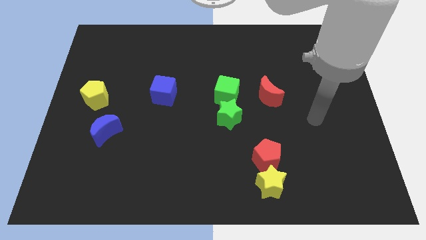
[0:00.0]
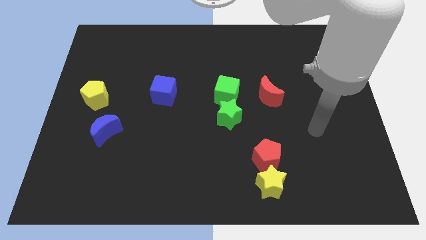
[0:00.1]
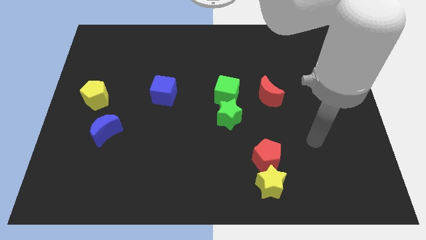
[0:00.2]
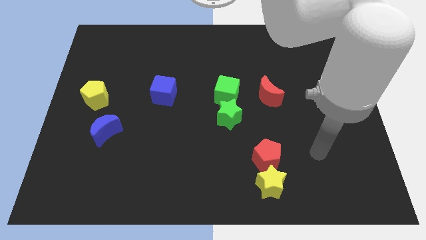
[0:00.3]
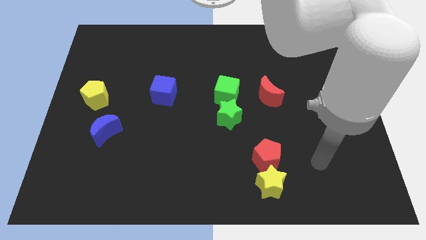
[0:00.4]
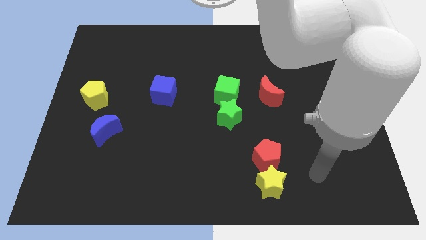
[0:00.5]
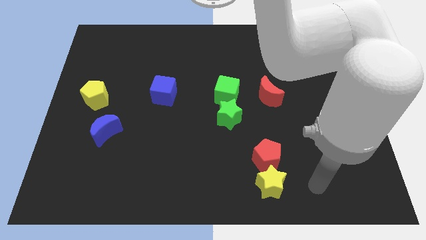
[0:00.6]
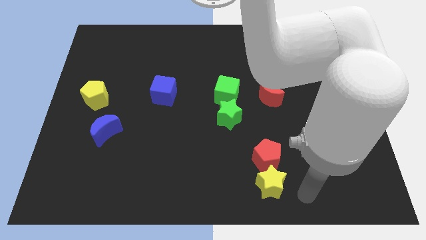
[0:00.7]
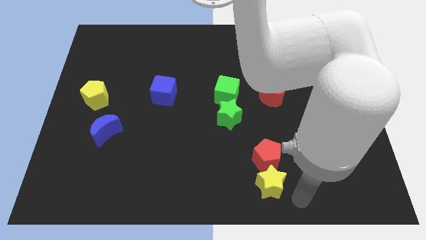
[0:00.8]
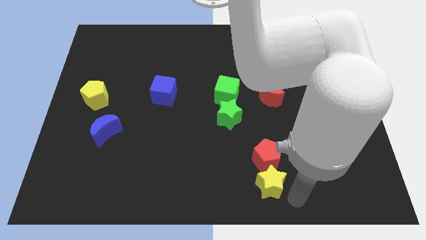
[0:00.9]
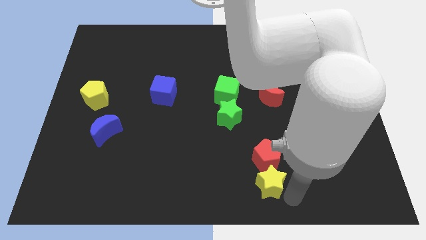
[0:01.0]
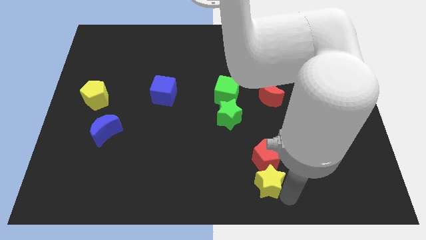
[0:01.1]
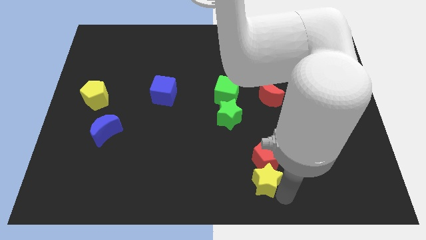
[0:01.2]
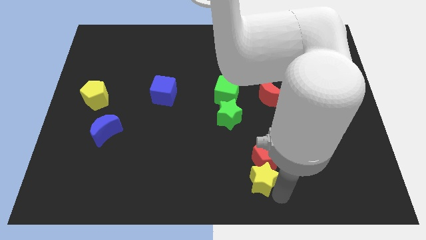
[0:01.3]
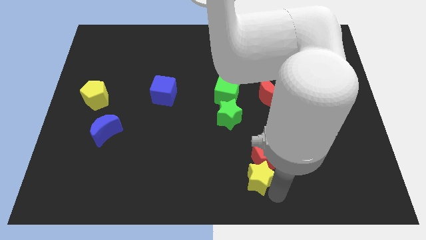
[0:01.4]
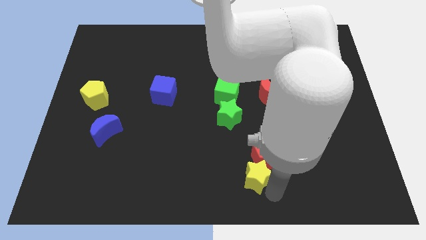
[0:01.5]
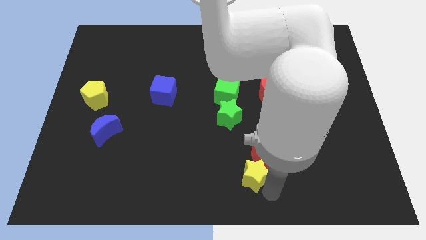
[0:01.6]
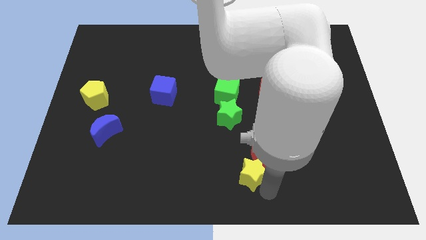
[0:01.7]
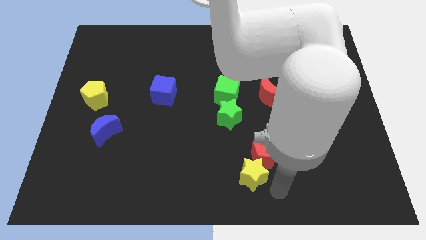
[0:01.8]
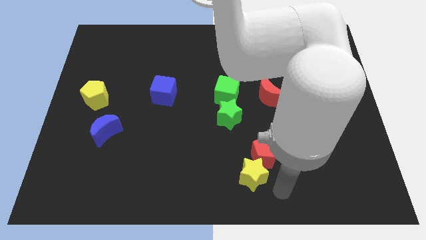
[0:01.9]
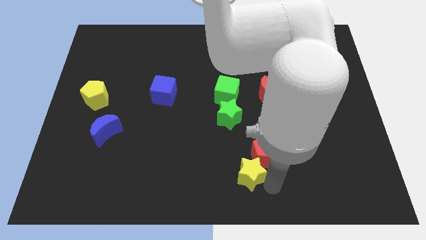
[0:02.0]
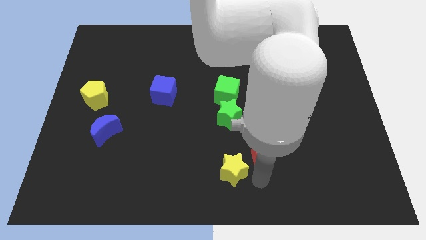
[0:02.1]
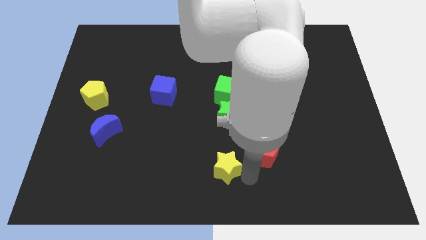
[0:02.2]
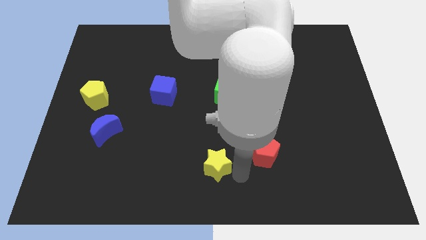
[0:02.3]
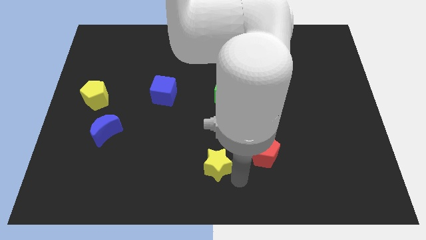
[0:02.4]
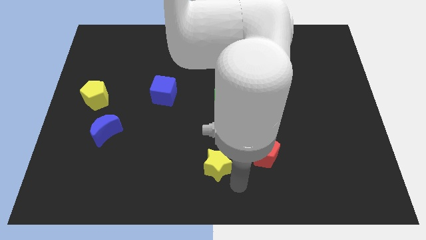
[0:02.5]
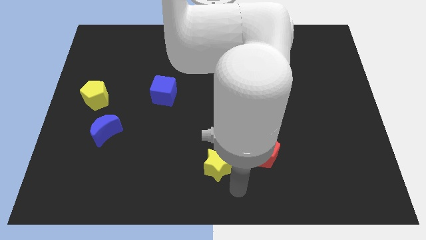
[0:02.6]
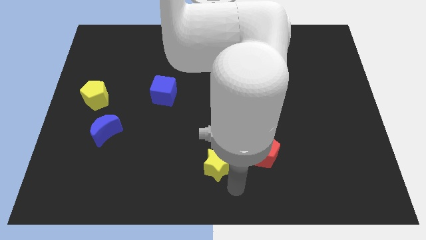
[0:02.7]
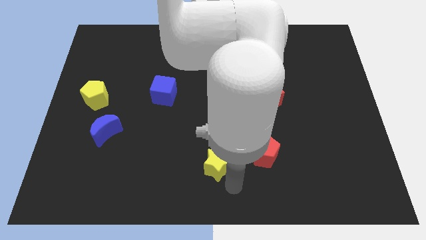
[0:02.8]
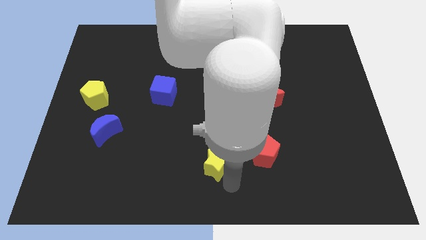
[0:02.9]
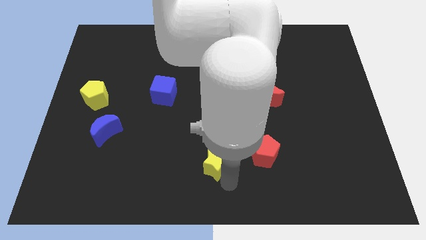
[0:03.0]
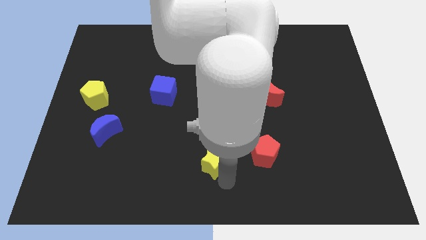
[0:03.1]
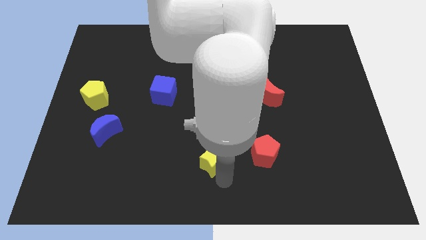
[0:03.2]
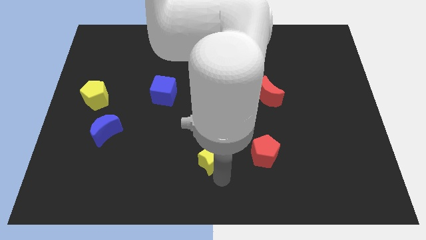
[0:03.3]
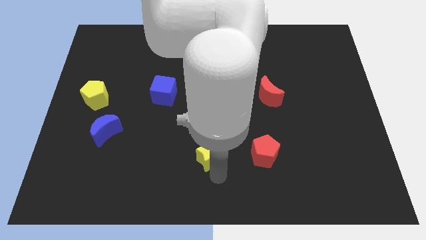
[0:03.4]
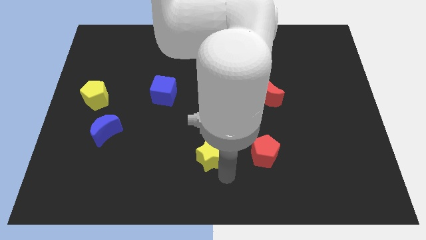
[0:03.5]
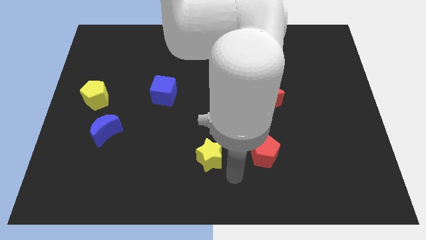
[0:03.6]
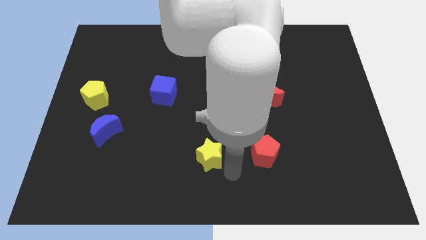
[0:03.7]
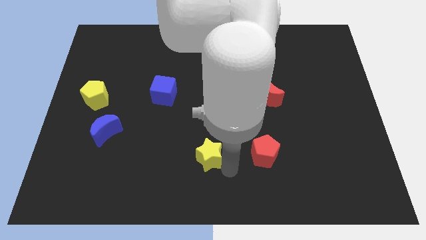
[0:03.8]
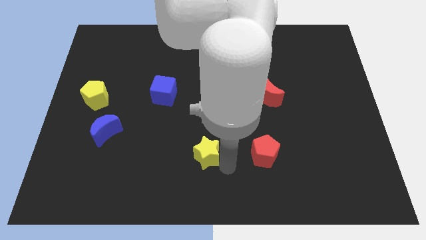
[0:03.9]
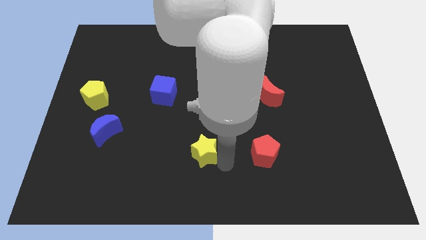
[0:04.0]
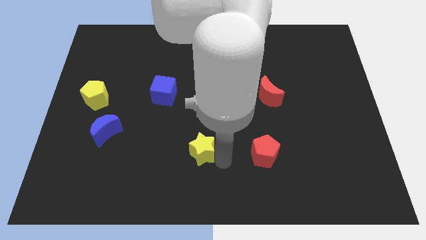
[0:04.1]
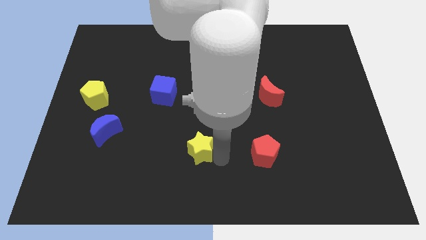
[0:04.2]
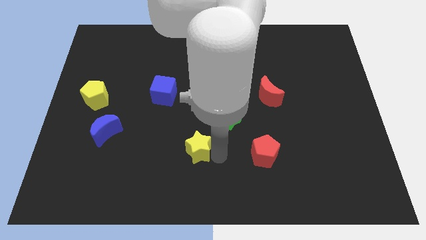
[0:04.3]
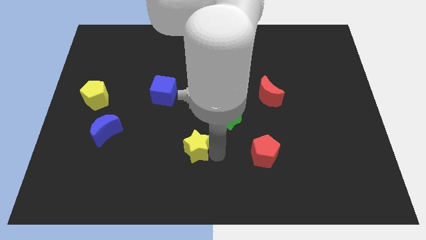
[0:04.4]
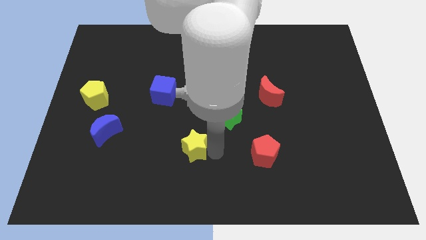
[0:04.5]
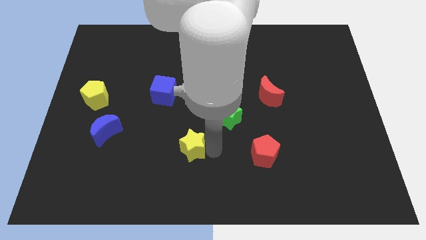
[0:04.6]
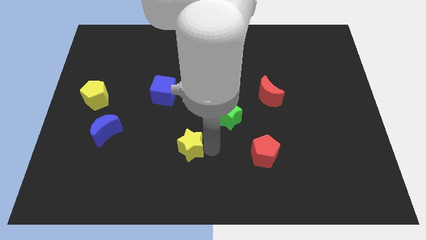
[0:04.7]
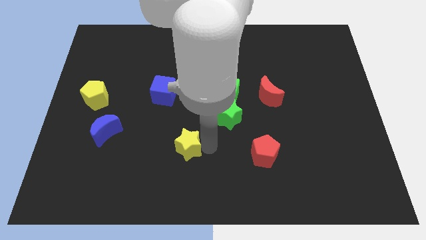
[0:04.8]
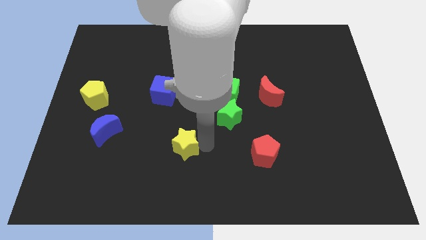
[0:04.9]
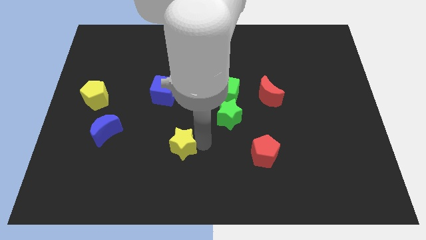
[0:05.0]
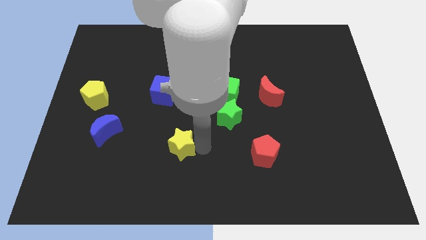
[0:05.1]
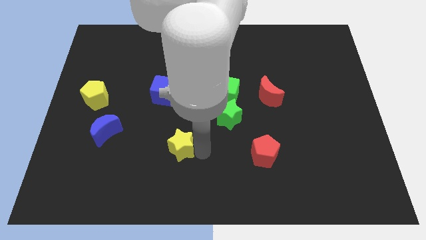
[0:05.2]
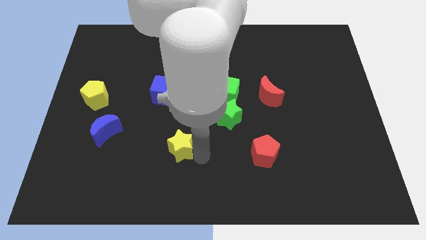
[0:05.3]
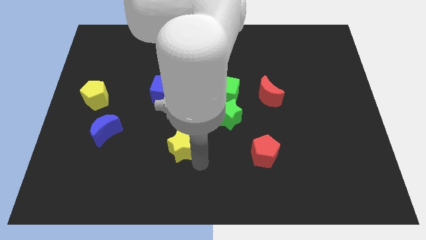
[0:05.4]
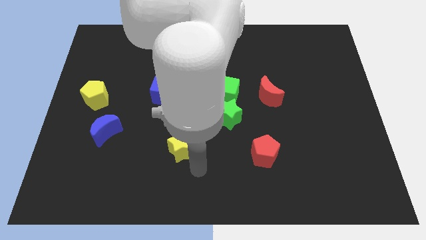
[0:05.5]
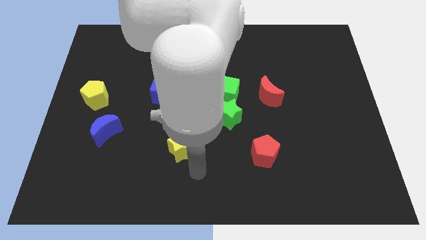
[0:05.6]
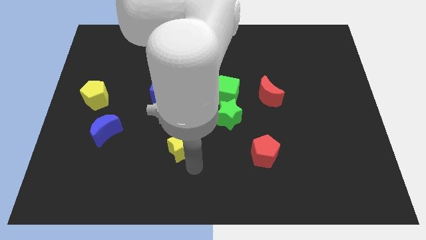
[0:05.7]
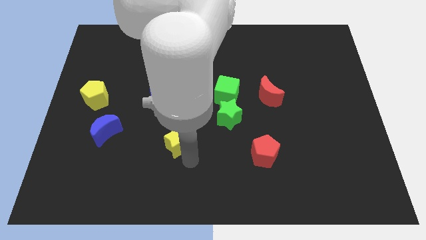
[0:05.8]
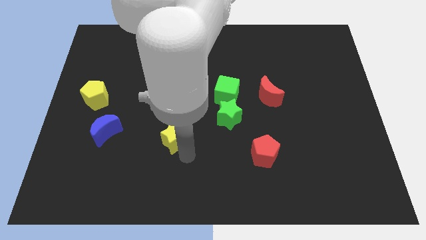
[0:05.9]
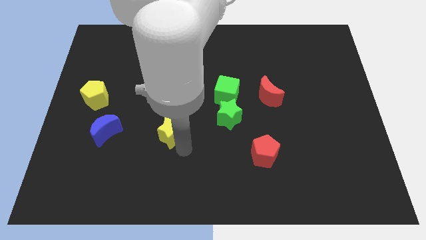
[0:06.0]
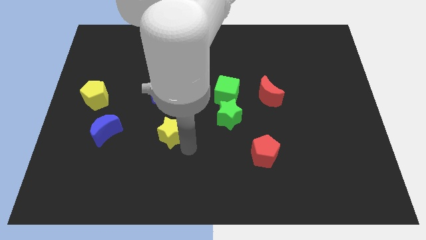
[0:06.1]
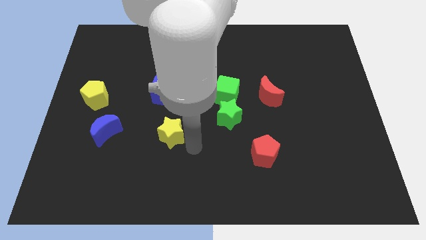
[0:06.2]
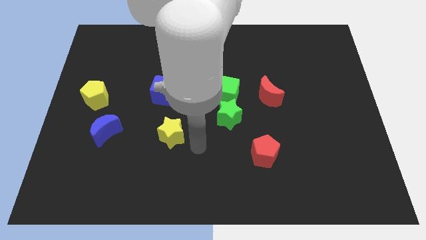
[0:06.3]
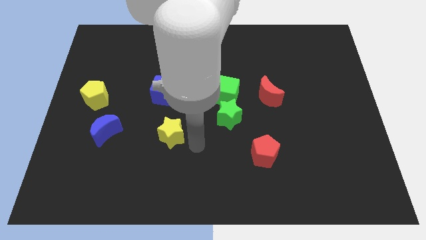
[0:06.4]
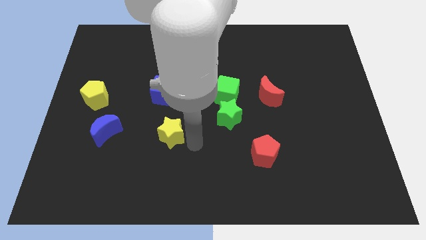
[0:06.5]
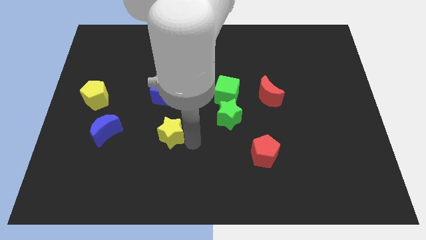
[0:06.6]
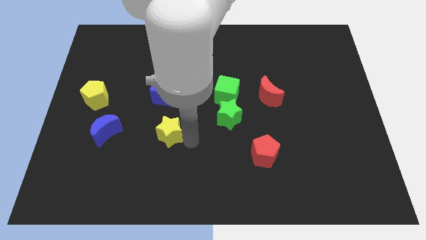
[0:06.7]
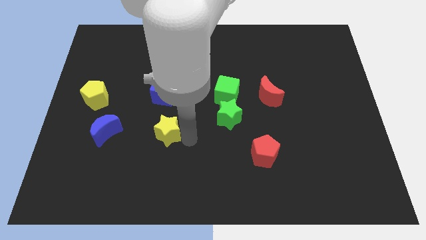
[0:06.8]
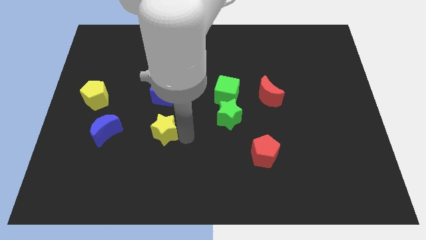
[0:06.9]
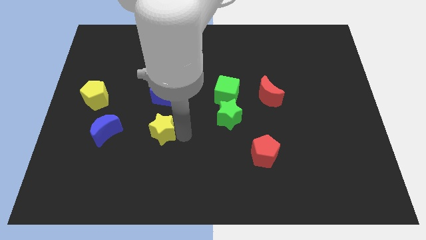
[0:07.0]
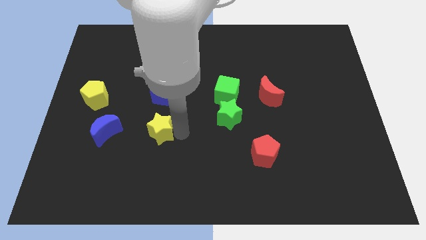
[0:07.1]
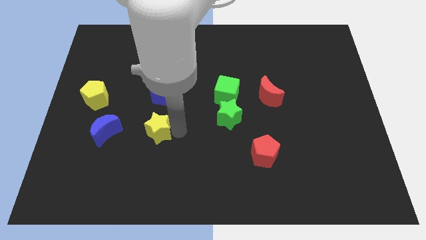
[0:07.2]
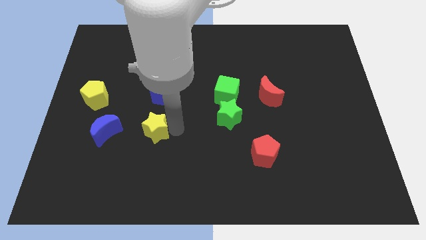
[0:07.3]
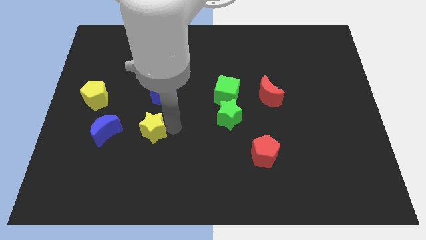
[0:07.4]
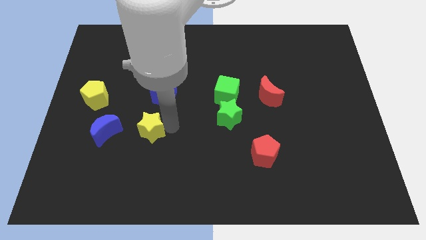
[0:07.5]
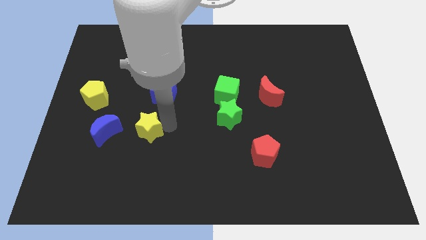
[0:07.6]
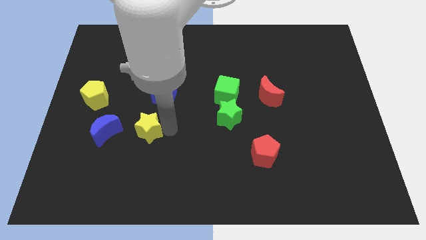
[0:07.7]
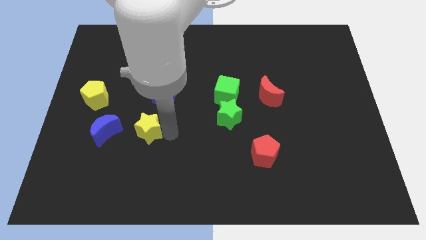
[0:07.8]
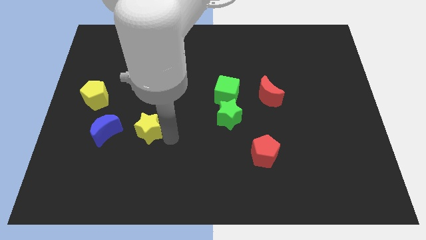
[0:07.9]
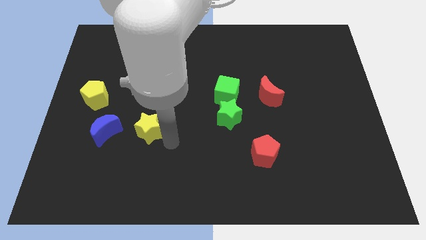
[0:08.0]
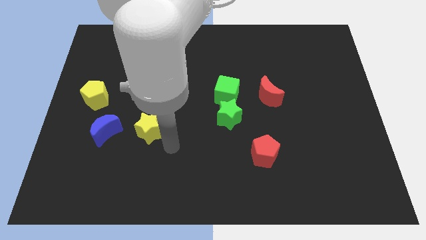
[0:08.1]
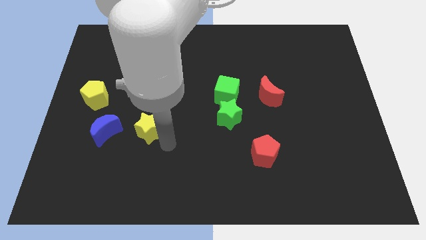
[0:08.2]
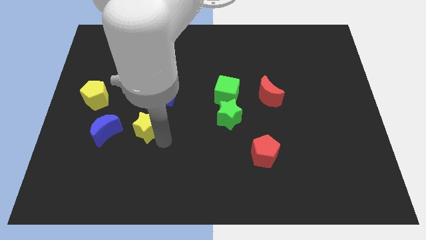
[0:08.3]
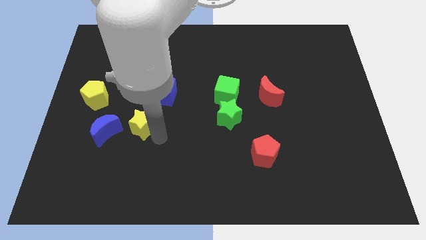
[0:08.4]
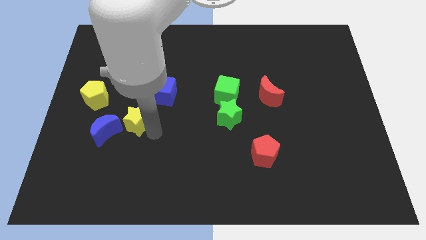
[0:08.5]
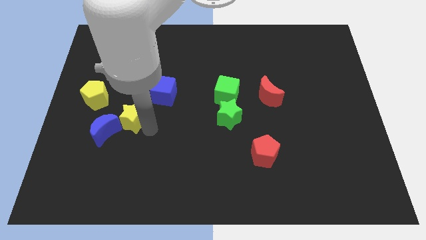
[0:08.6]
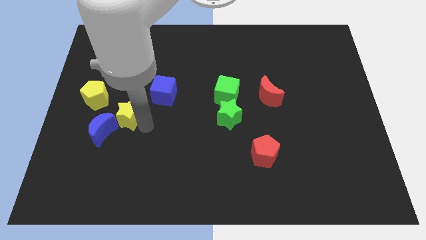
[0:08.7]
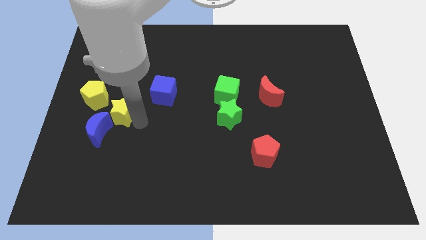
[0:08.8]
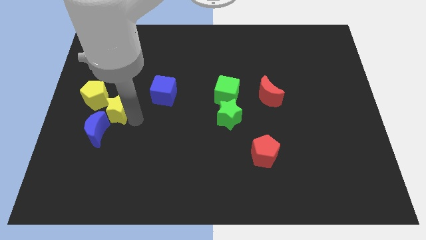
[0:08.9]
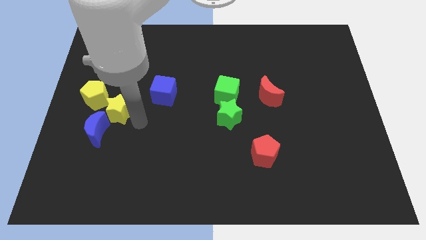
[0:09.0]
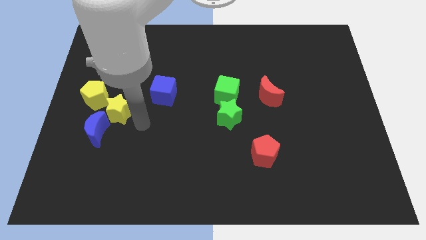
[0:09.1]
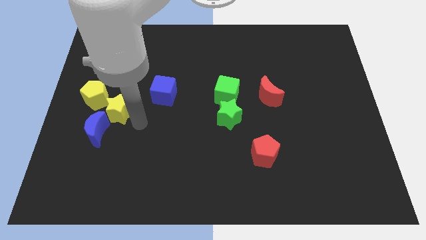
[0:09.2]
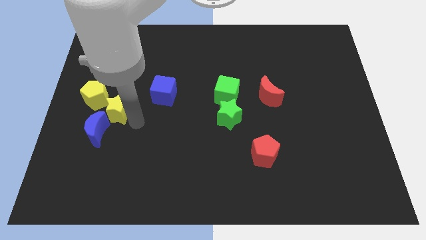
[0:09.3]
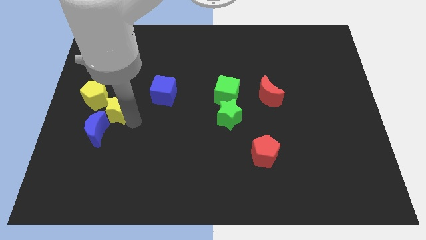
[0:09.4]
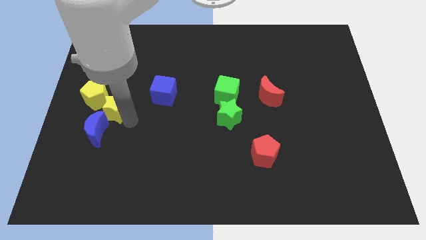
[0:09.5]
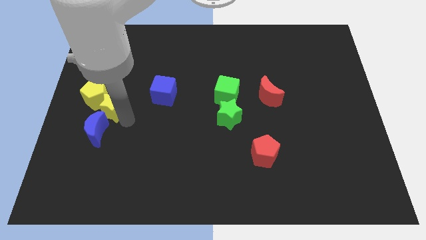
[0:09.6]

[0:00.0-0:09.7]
move the yellow star towards the yellow pentagon
